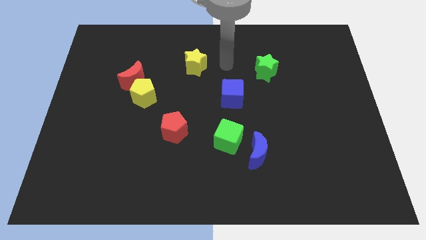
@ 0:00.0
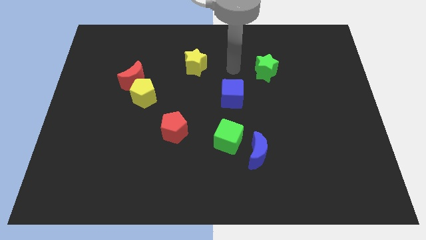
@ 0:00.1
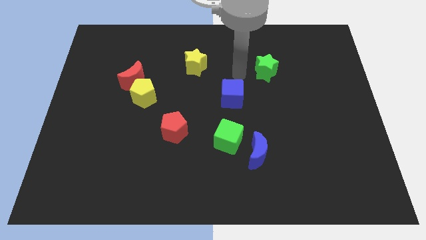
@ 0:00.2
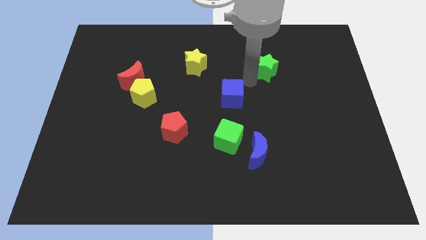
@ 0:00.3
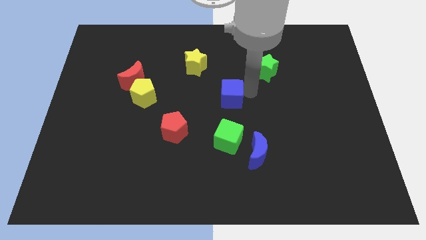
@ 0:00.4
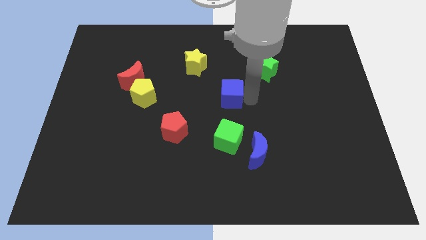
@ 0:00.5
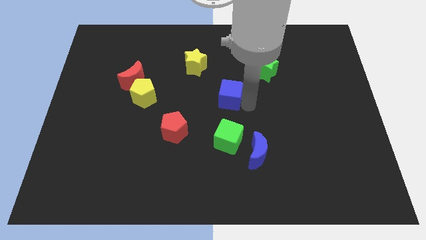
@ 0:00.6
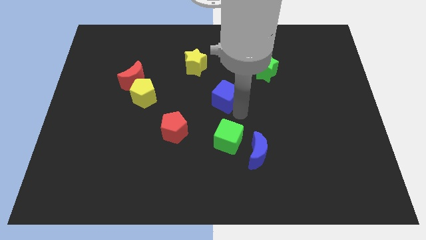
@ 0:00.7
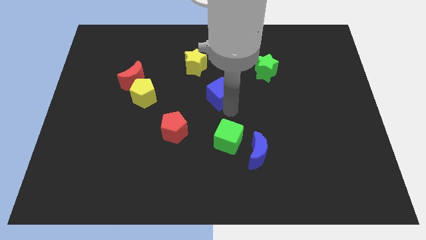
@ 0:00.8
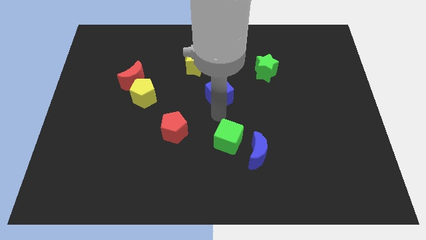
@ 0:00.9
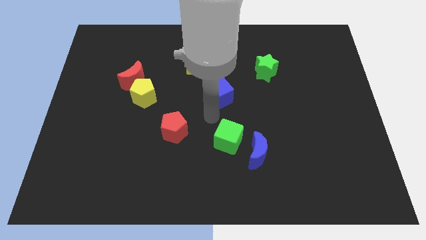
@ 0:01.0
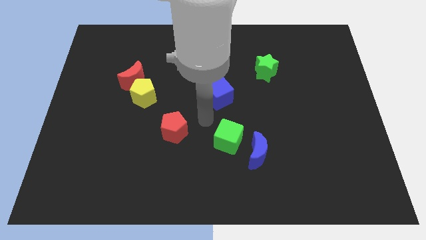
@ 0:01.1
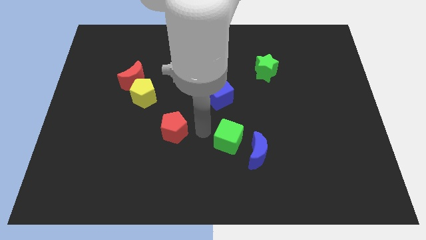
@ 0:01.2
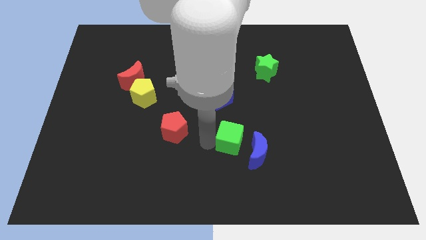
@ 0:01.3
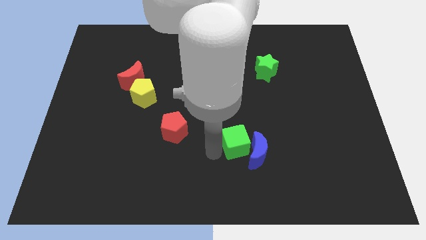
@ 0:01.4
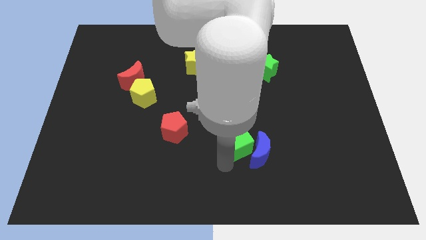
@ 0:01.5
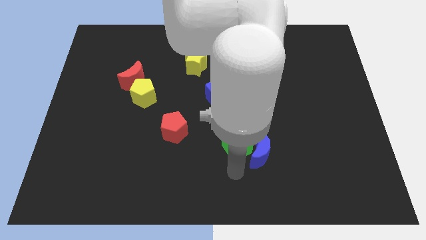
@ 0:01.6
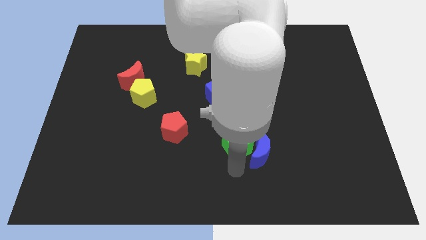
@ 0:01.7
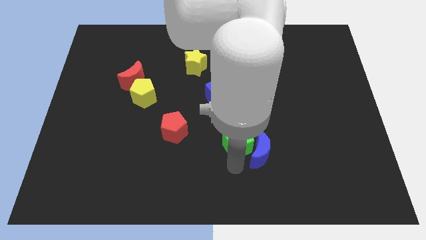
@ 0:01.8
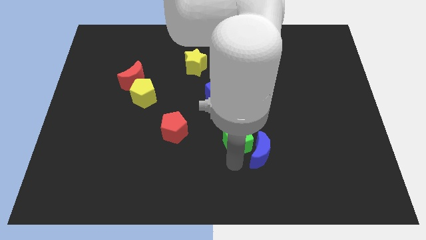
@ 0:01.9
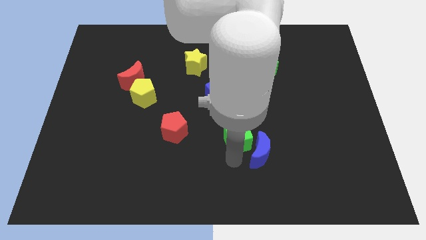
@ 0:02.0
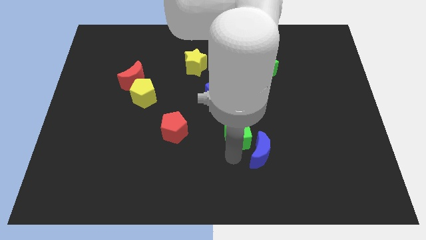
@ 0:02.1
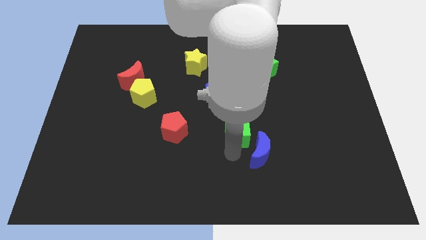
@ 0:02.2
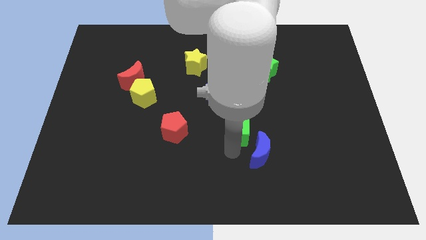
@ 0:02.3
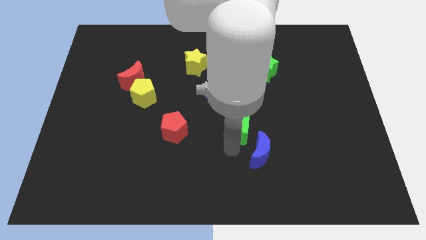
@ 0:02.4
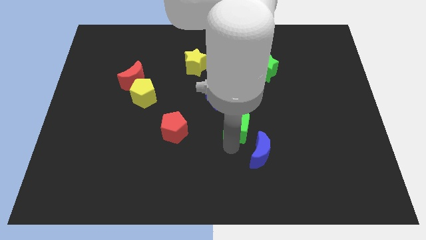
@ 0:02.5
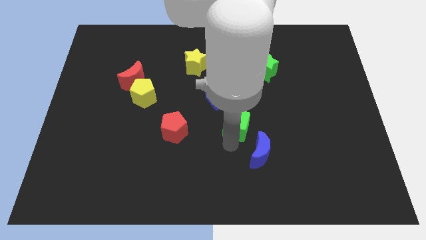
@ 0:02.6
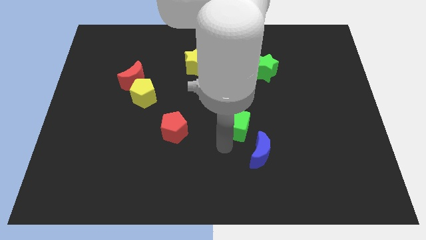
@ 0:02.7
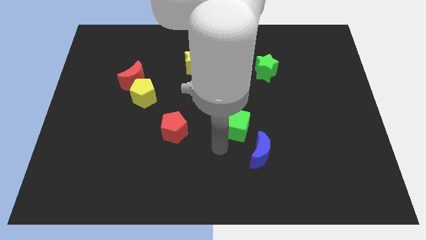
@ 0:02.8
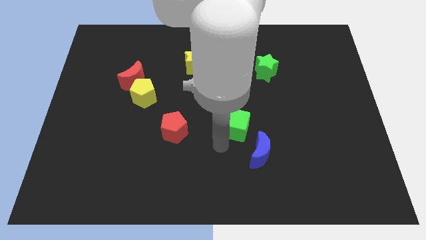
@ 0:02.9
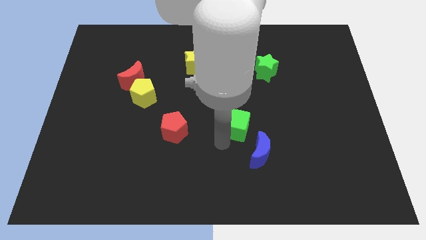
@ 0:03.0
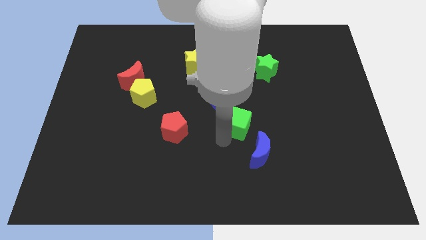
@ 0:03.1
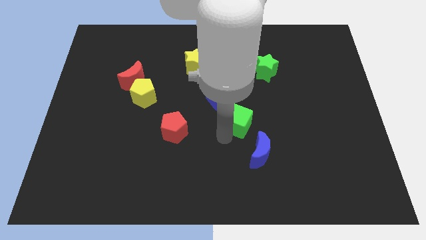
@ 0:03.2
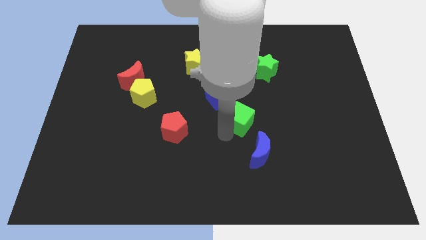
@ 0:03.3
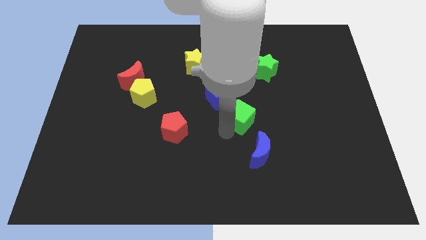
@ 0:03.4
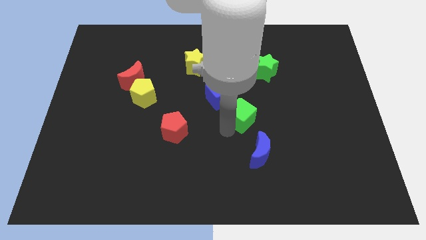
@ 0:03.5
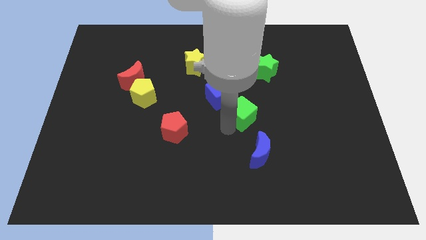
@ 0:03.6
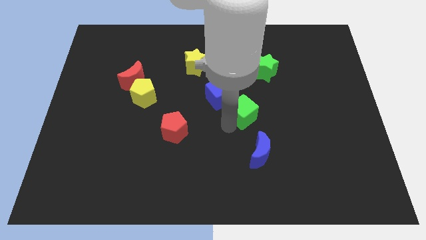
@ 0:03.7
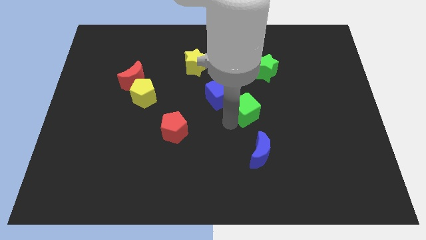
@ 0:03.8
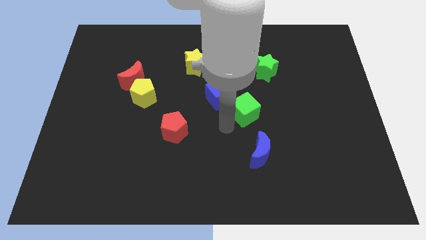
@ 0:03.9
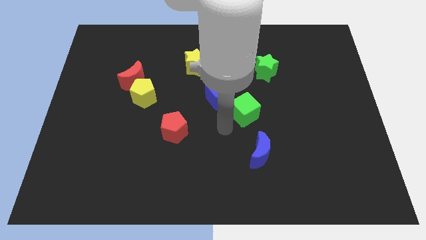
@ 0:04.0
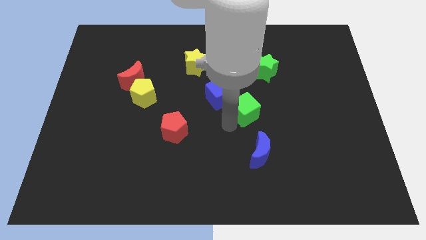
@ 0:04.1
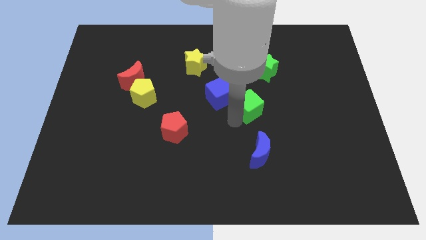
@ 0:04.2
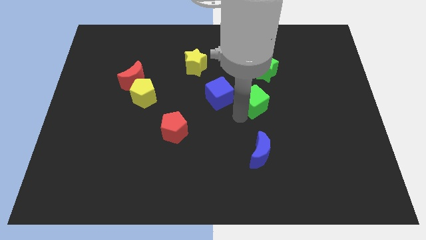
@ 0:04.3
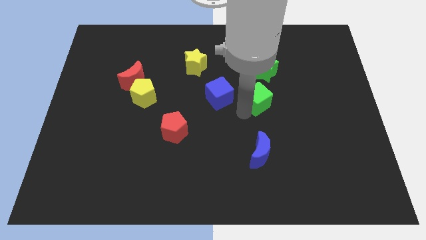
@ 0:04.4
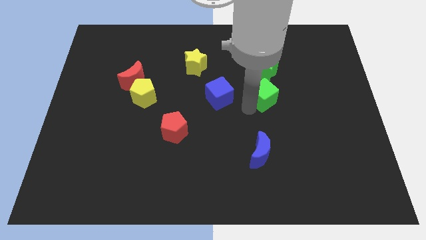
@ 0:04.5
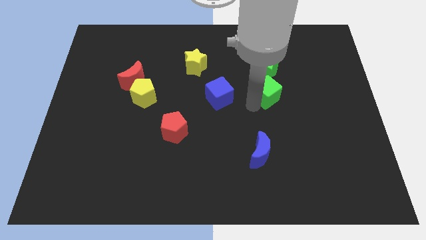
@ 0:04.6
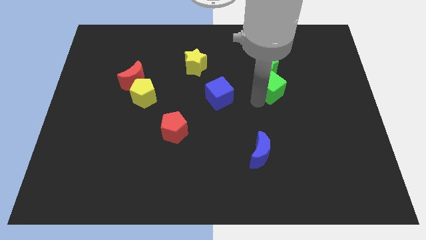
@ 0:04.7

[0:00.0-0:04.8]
push the green cube diagonally down and to the right of the green star

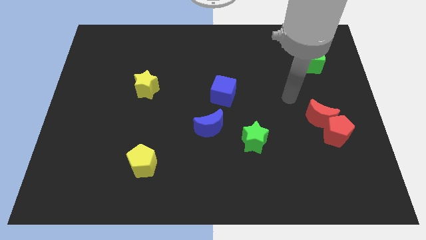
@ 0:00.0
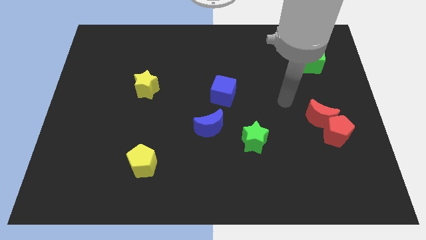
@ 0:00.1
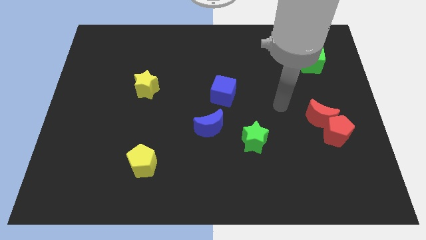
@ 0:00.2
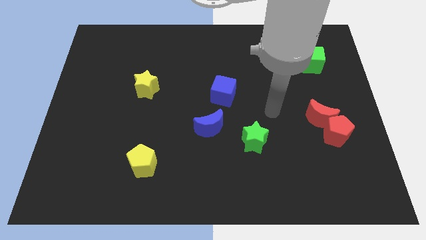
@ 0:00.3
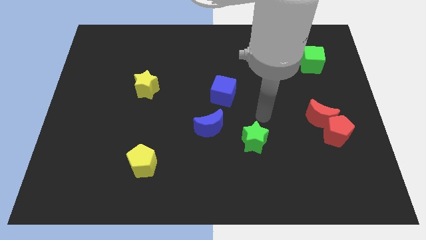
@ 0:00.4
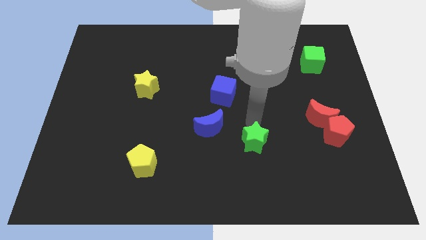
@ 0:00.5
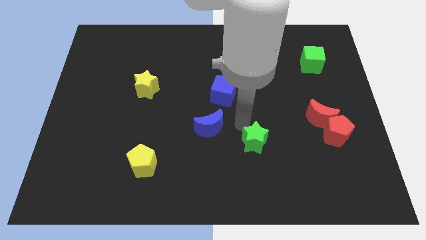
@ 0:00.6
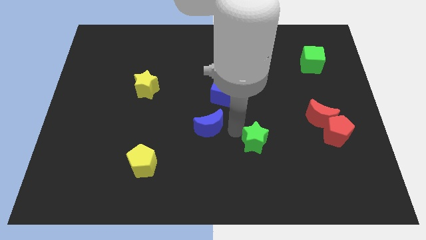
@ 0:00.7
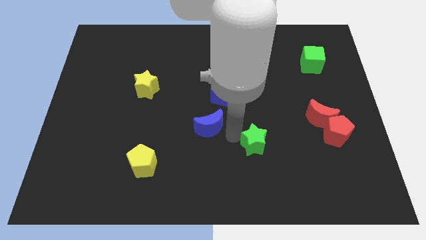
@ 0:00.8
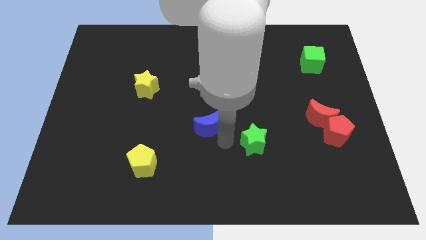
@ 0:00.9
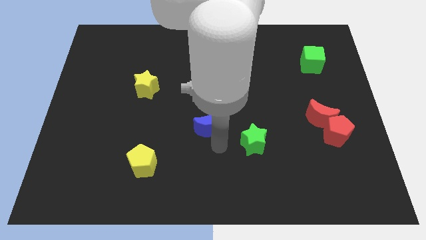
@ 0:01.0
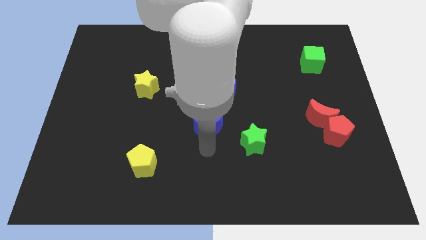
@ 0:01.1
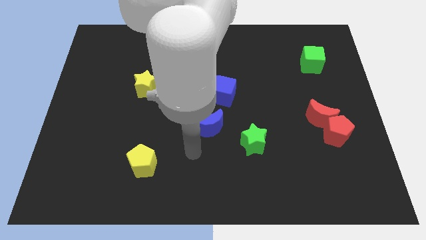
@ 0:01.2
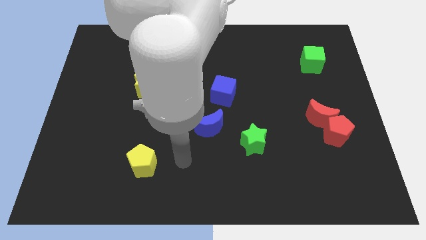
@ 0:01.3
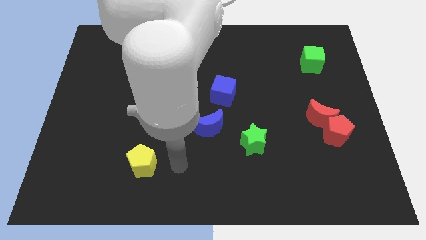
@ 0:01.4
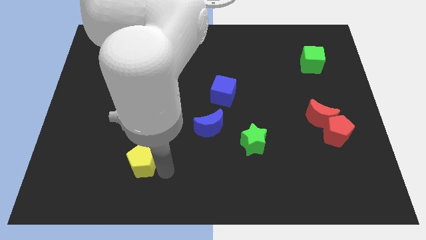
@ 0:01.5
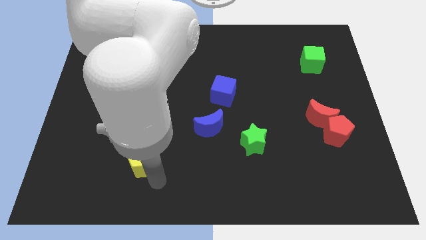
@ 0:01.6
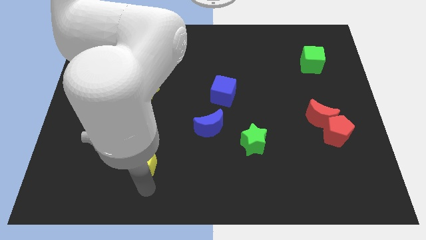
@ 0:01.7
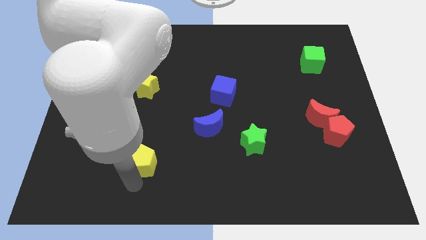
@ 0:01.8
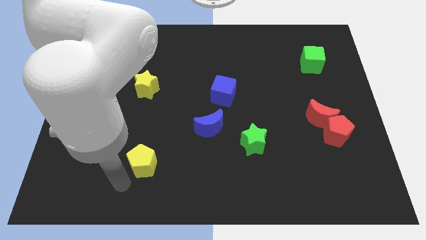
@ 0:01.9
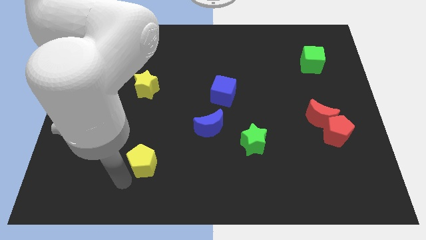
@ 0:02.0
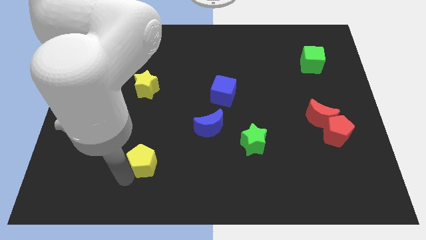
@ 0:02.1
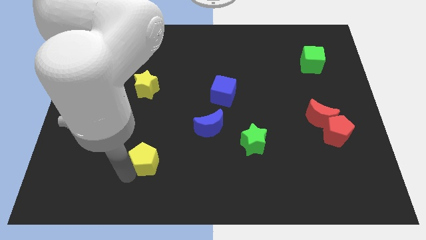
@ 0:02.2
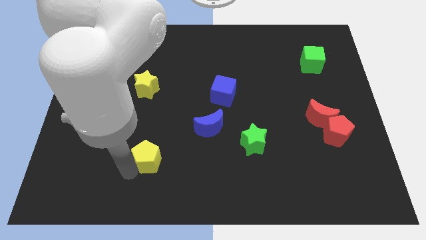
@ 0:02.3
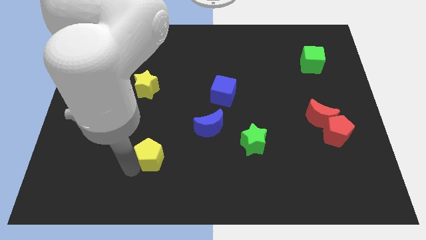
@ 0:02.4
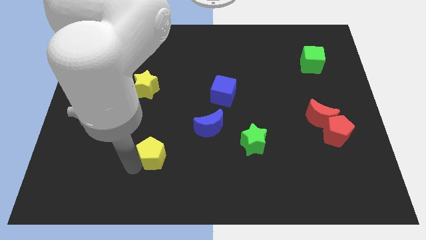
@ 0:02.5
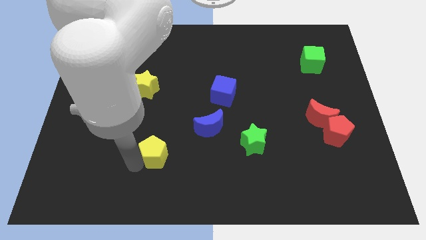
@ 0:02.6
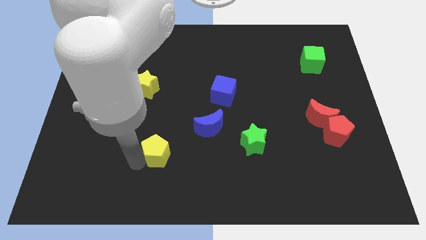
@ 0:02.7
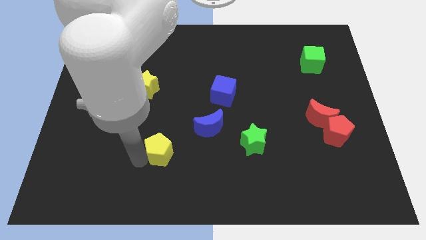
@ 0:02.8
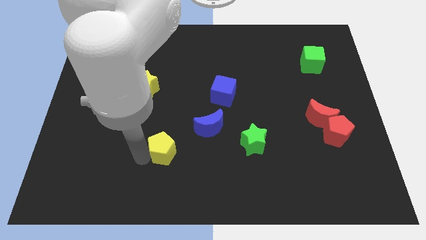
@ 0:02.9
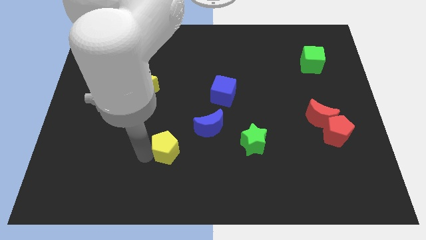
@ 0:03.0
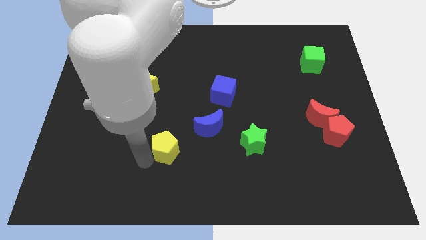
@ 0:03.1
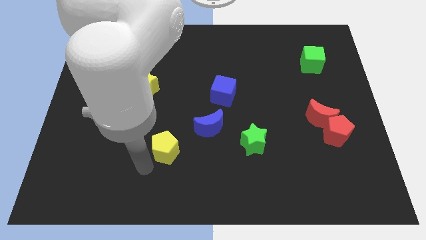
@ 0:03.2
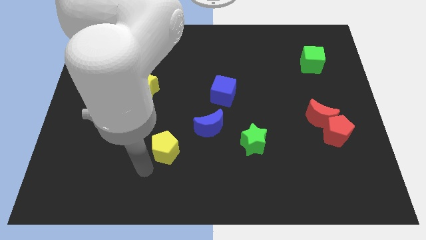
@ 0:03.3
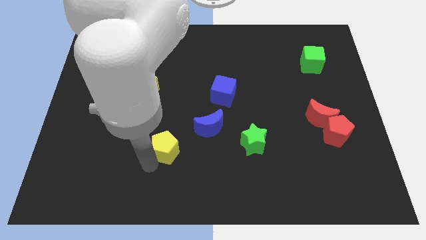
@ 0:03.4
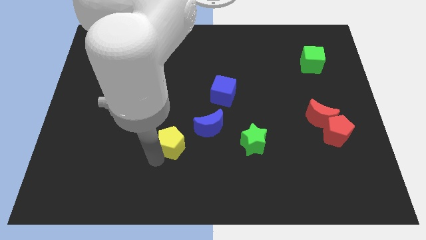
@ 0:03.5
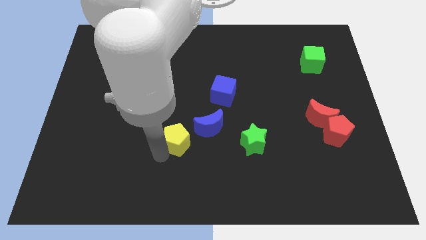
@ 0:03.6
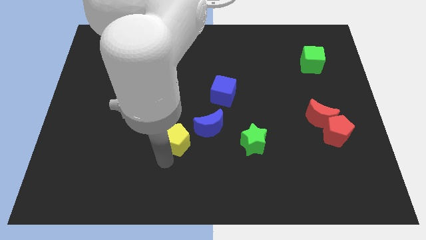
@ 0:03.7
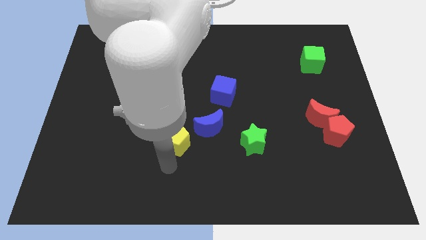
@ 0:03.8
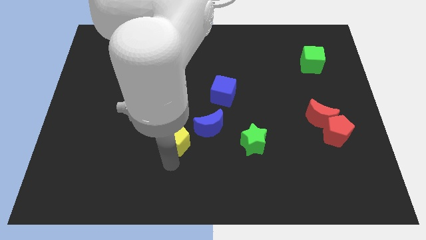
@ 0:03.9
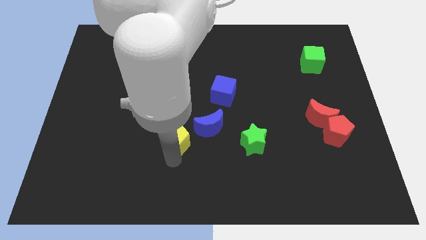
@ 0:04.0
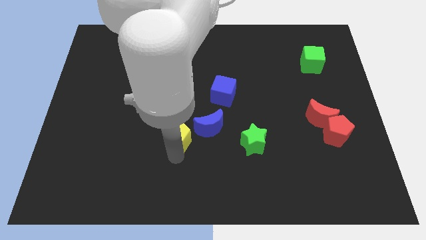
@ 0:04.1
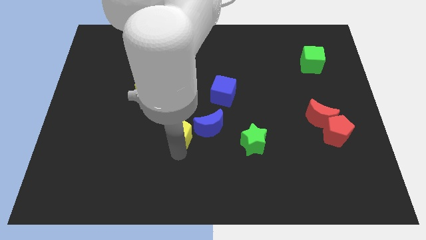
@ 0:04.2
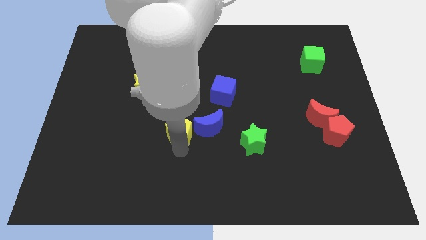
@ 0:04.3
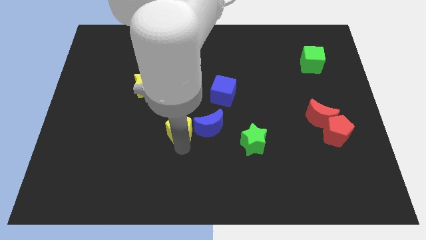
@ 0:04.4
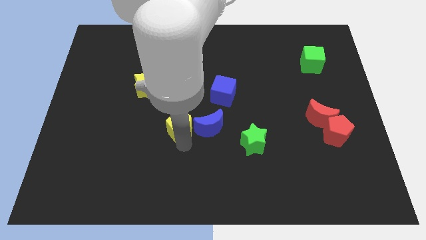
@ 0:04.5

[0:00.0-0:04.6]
slide the yellow pentagon diagonally up and to the left of the blue moon
